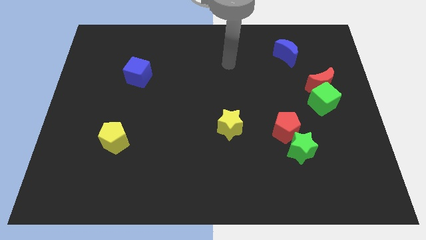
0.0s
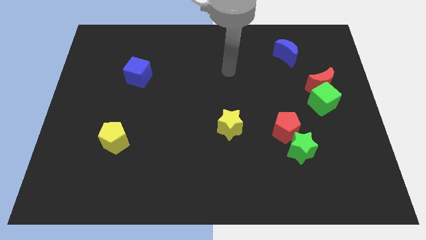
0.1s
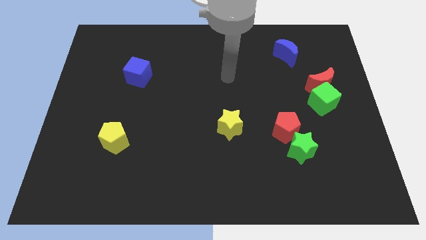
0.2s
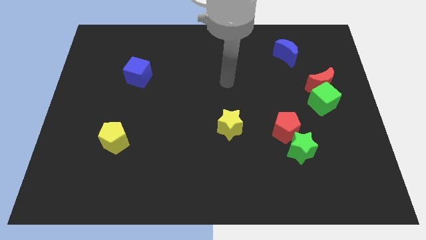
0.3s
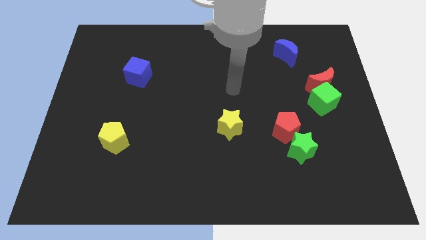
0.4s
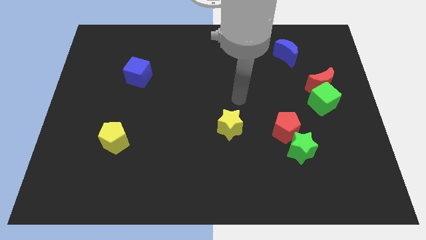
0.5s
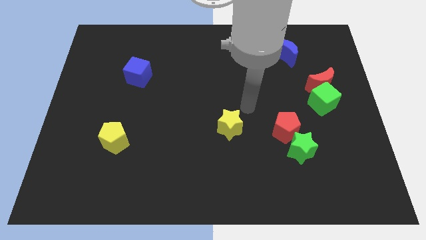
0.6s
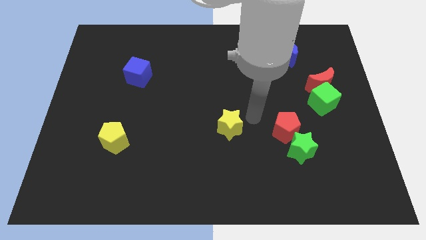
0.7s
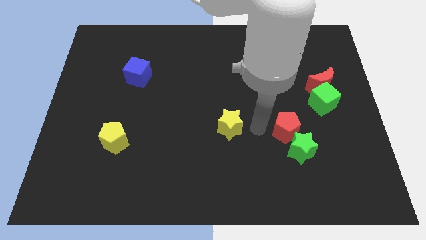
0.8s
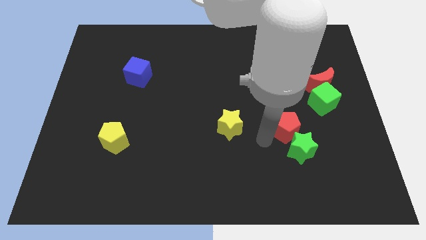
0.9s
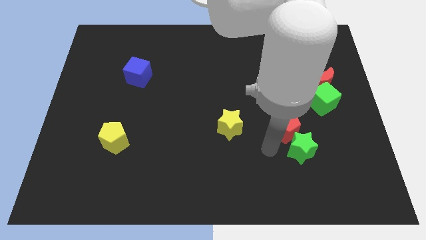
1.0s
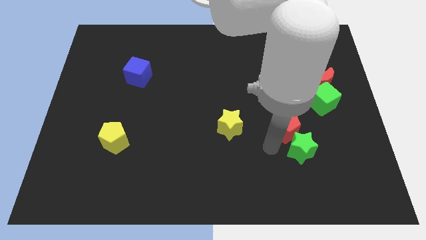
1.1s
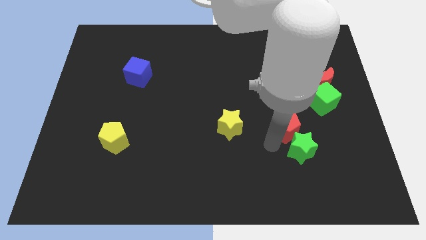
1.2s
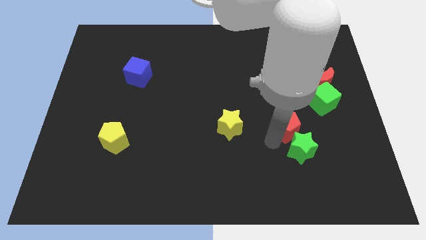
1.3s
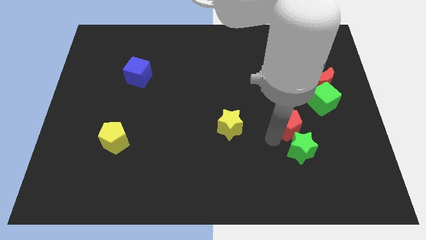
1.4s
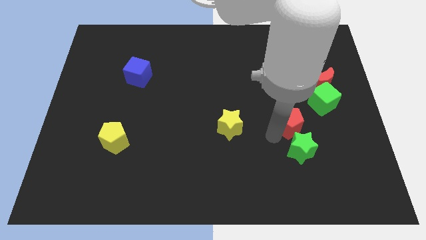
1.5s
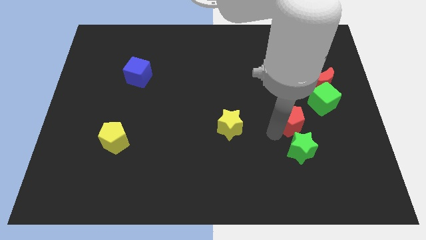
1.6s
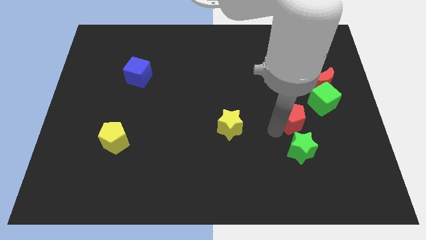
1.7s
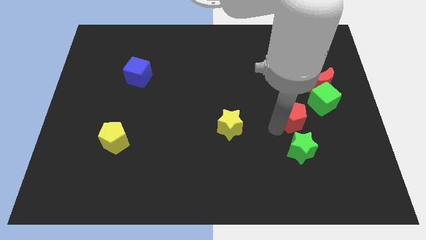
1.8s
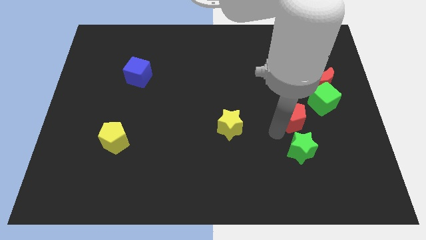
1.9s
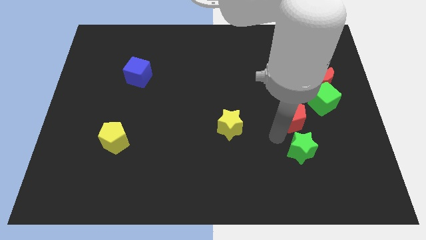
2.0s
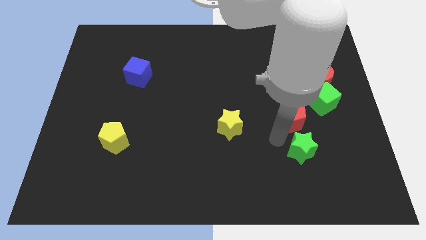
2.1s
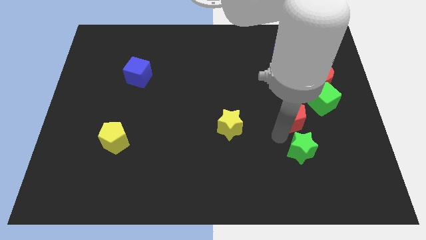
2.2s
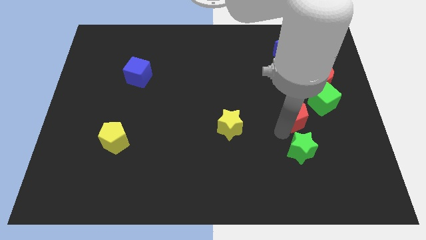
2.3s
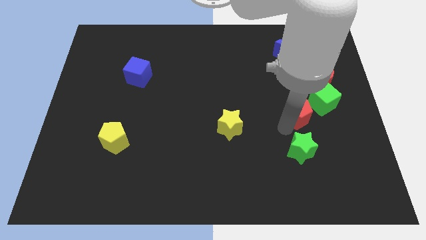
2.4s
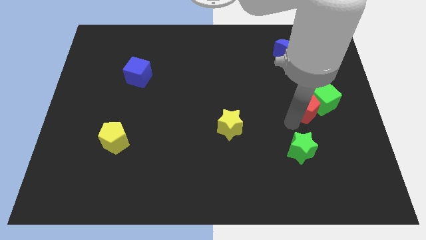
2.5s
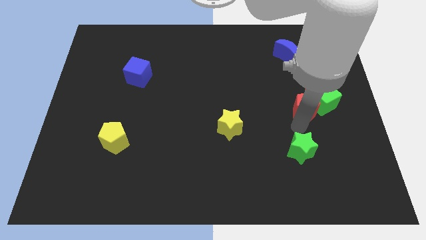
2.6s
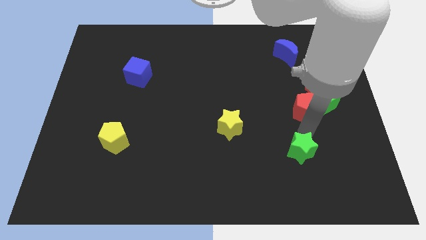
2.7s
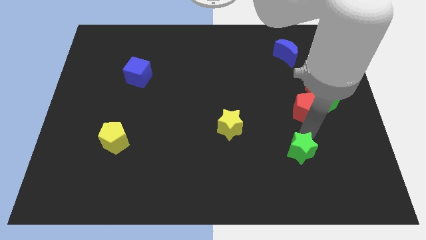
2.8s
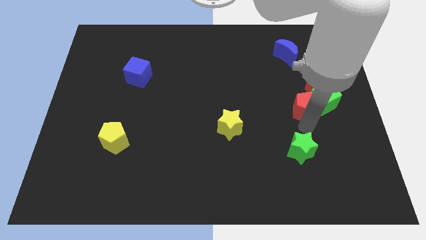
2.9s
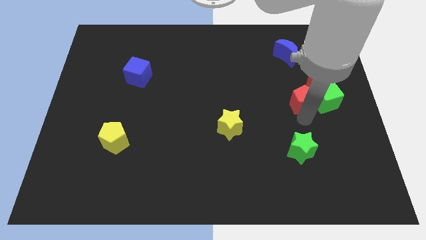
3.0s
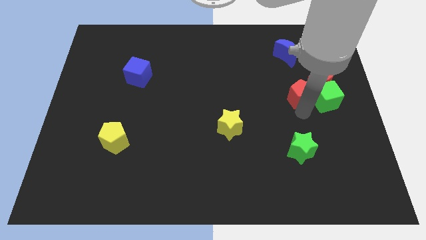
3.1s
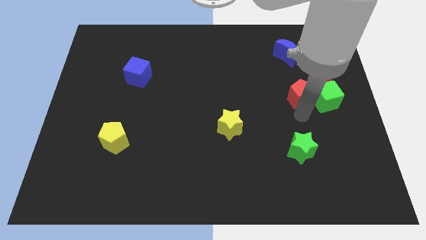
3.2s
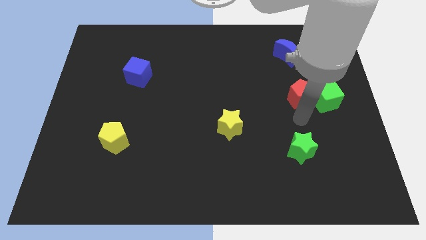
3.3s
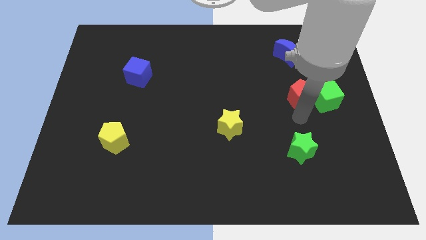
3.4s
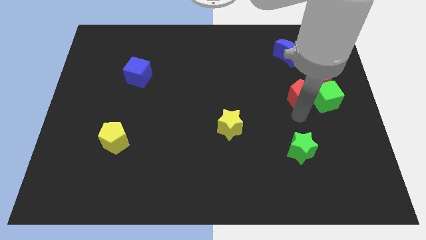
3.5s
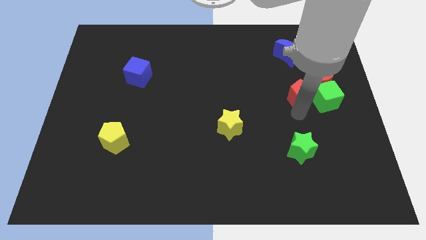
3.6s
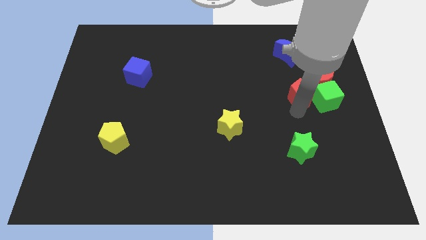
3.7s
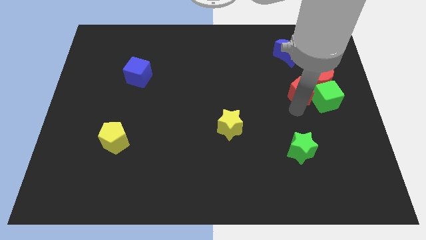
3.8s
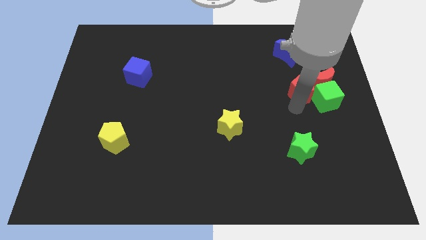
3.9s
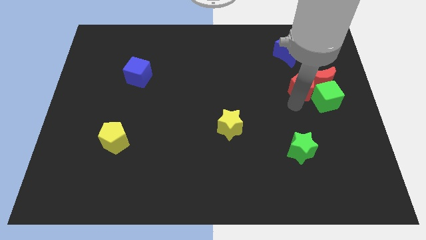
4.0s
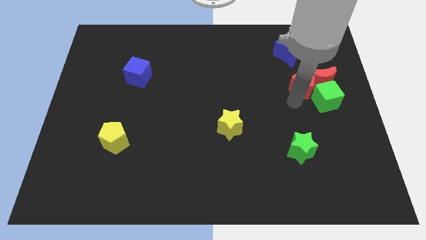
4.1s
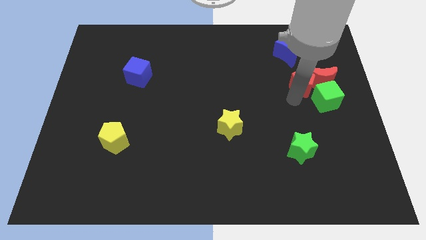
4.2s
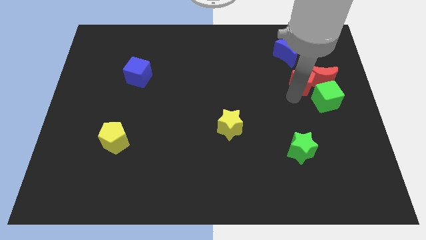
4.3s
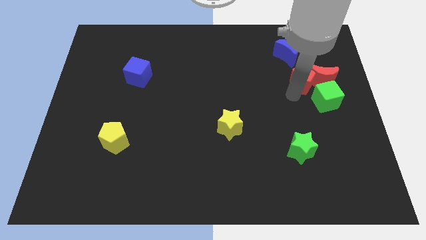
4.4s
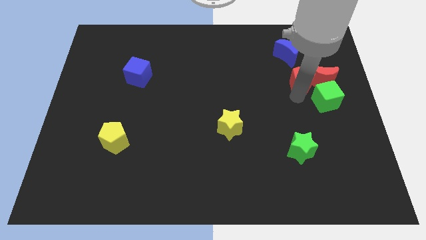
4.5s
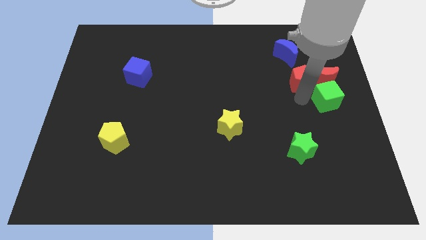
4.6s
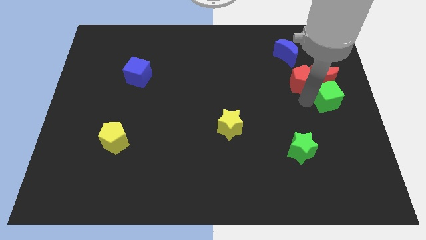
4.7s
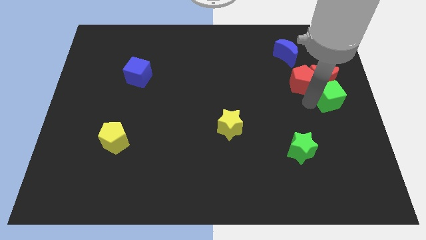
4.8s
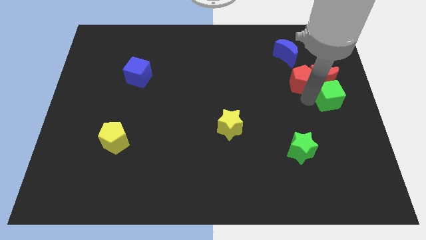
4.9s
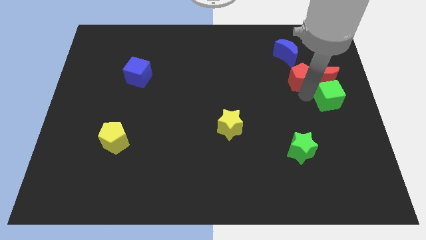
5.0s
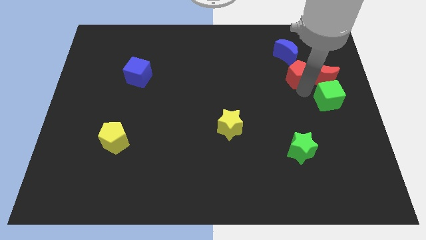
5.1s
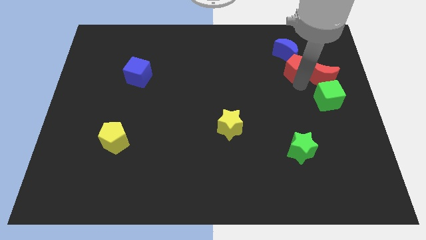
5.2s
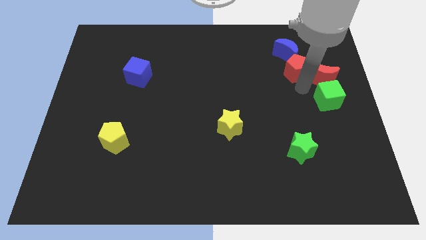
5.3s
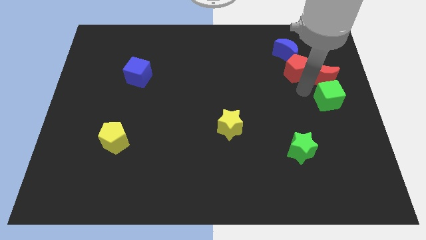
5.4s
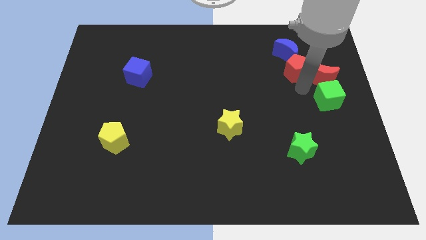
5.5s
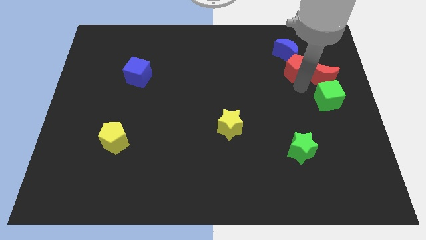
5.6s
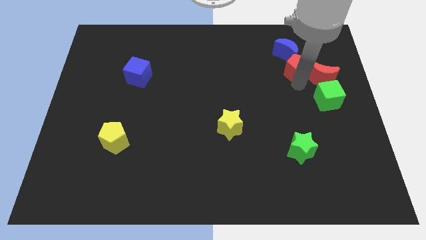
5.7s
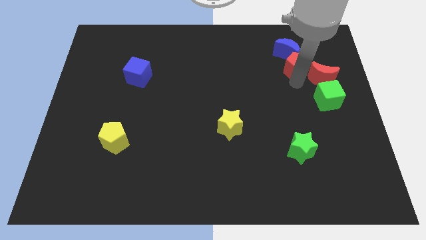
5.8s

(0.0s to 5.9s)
move the red pentagon close to the blue moon

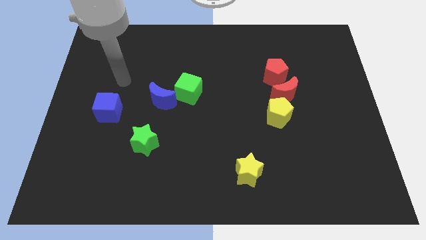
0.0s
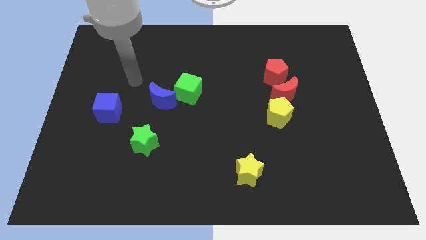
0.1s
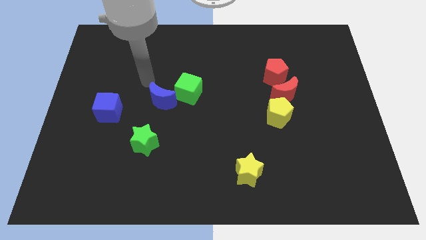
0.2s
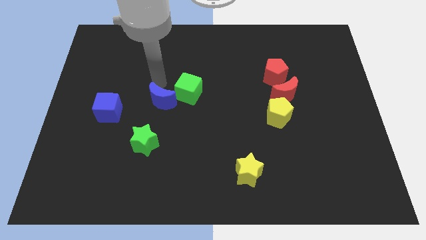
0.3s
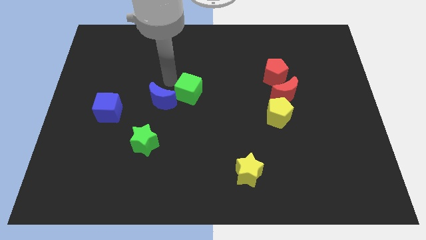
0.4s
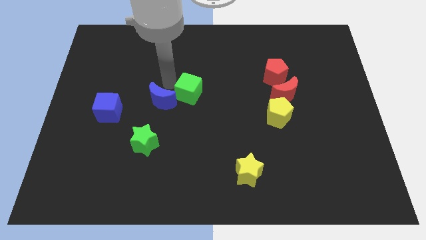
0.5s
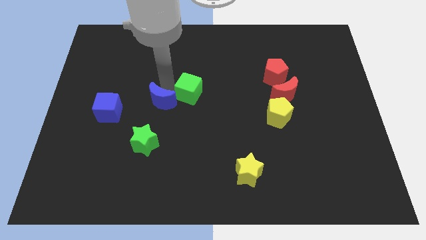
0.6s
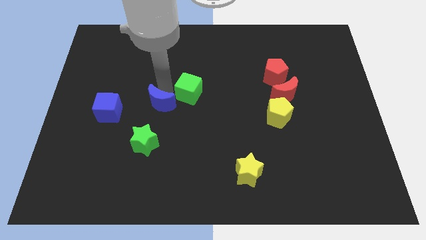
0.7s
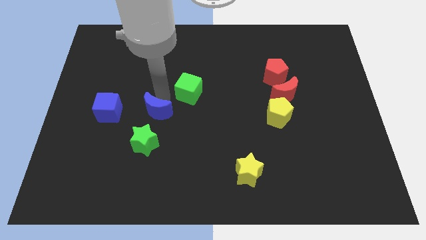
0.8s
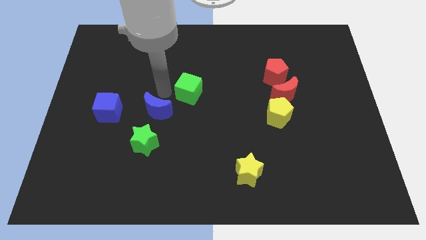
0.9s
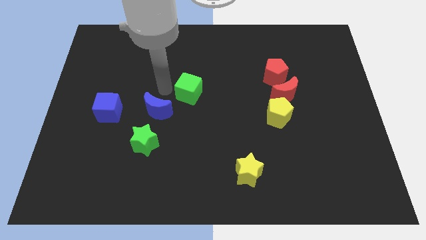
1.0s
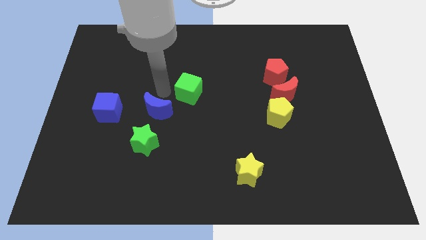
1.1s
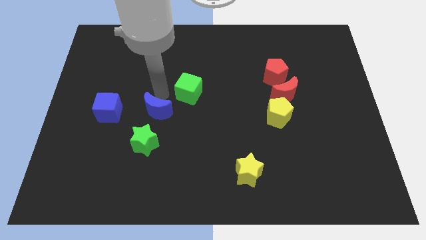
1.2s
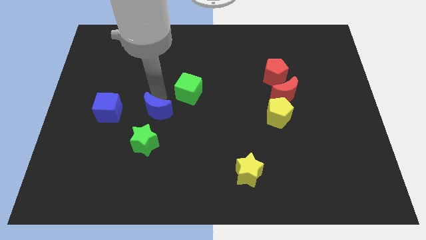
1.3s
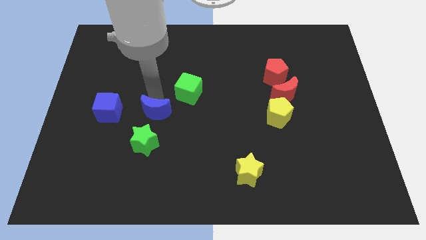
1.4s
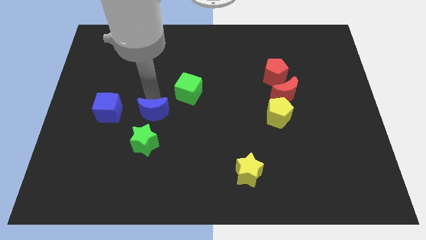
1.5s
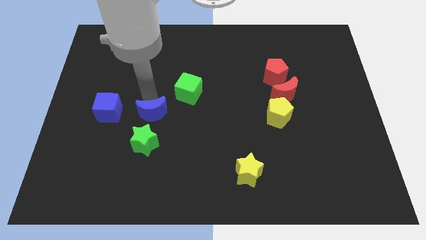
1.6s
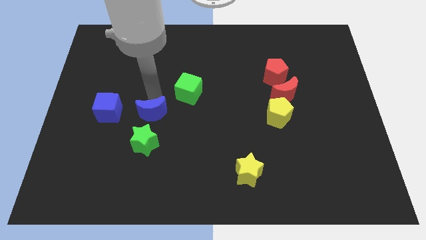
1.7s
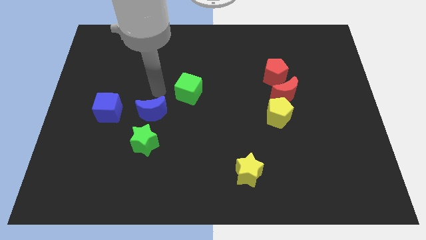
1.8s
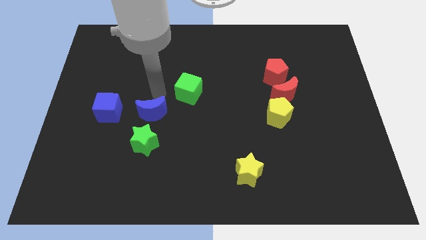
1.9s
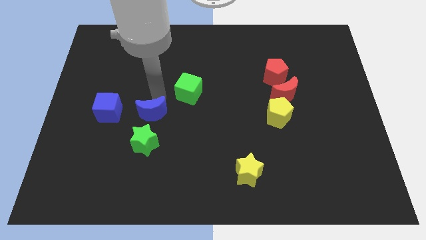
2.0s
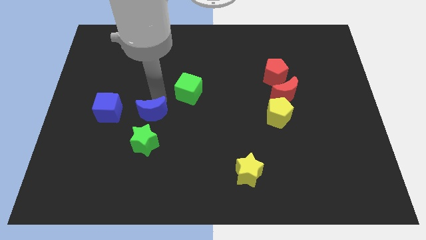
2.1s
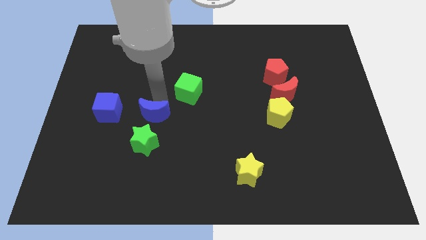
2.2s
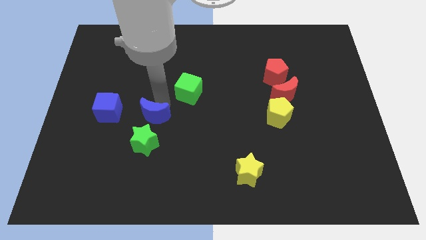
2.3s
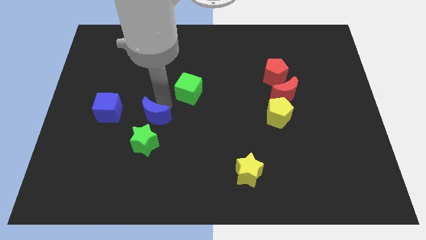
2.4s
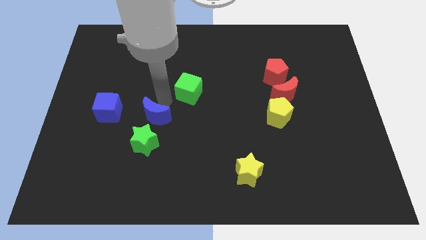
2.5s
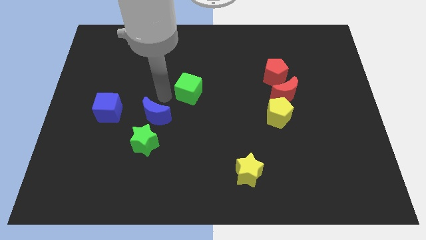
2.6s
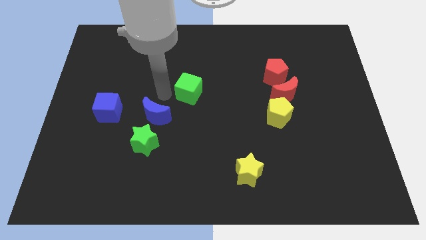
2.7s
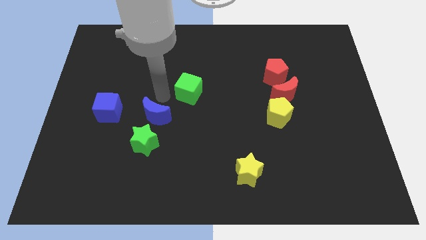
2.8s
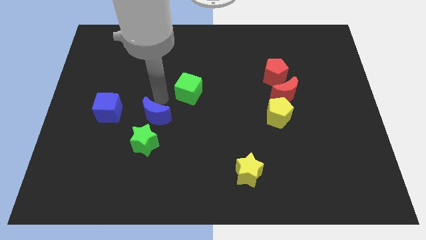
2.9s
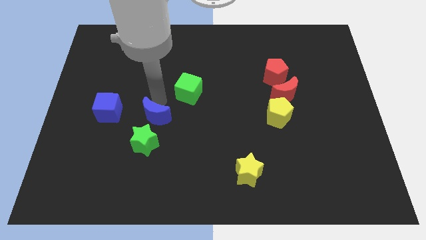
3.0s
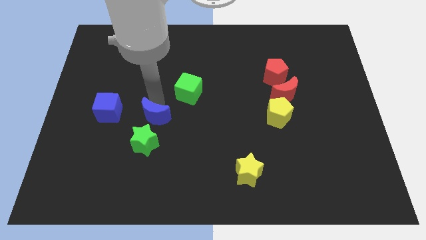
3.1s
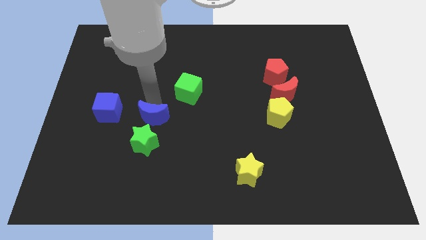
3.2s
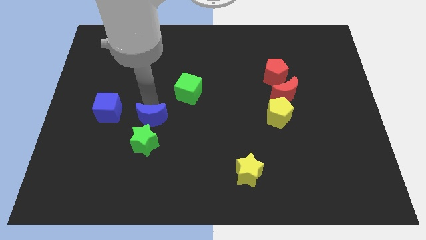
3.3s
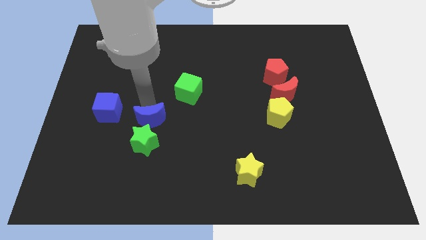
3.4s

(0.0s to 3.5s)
slide the blue moon to the green star
